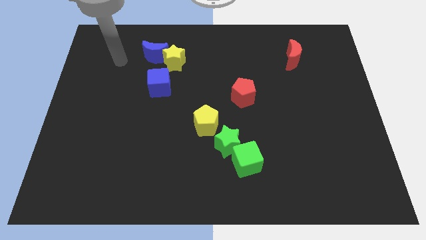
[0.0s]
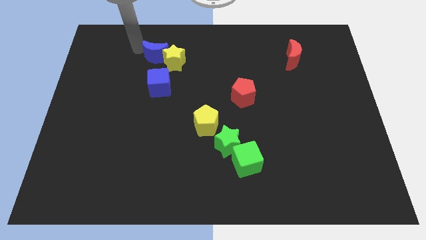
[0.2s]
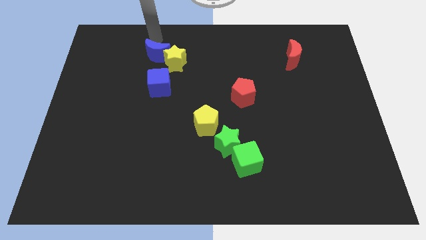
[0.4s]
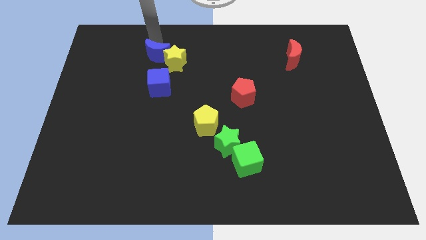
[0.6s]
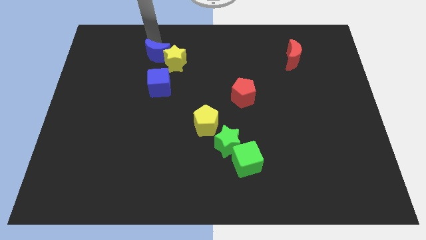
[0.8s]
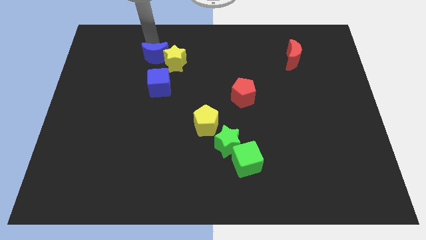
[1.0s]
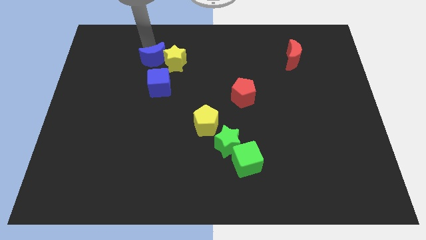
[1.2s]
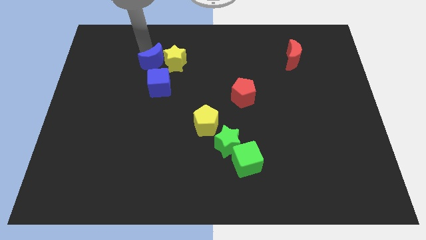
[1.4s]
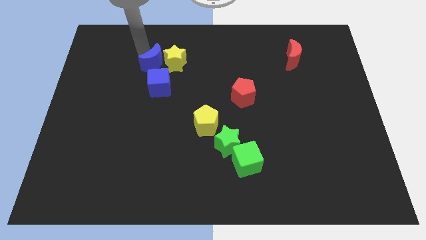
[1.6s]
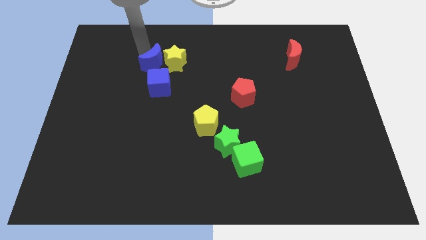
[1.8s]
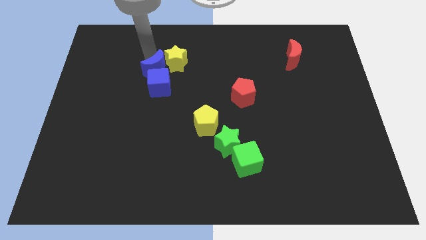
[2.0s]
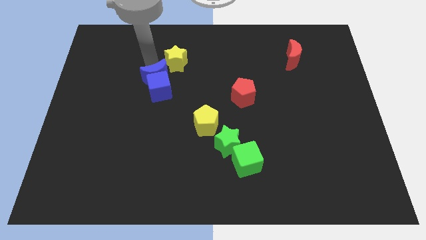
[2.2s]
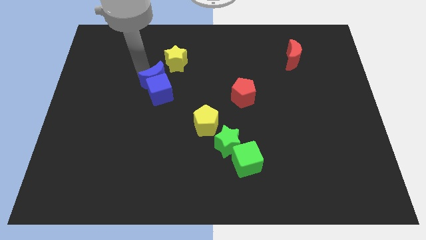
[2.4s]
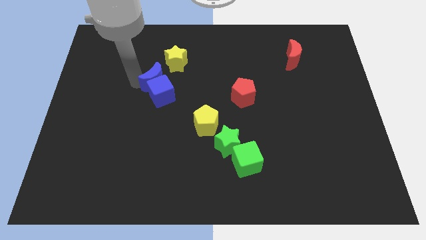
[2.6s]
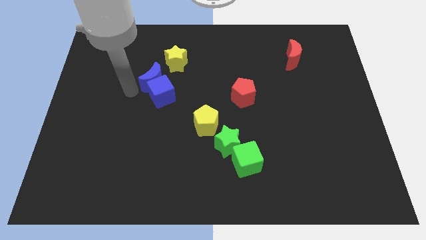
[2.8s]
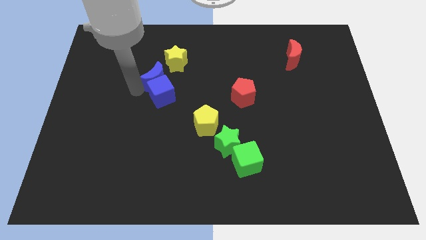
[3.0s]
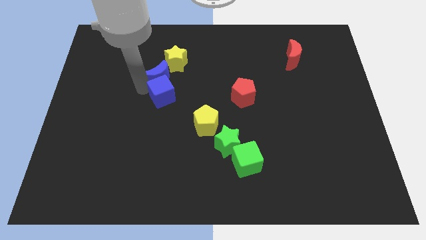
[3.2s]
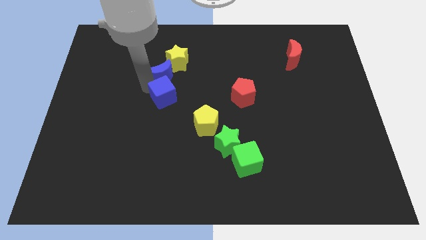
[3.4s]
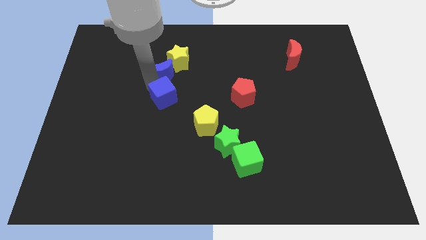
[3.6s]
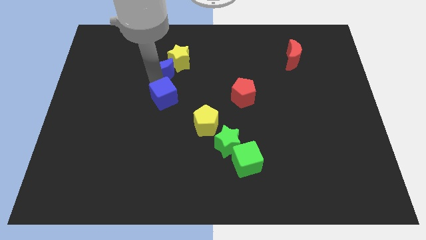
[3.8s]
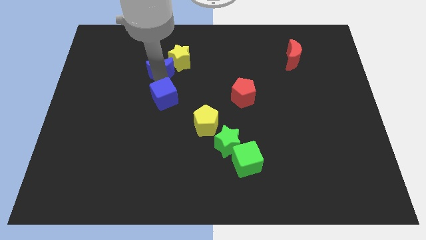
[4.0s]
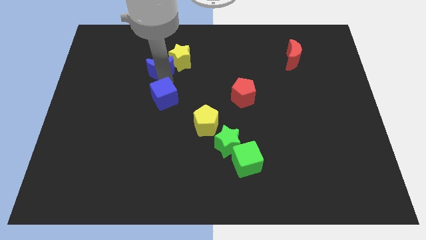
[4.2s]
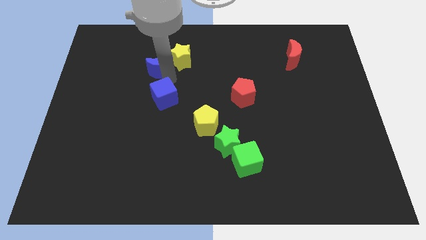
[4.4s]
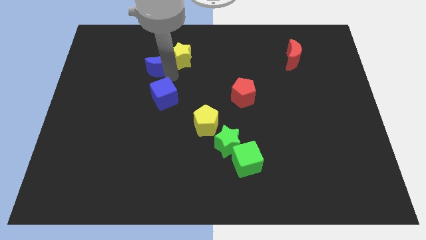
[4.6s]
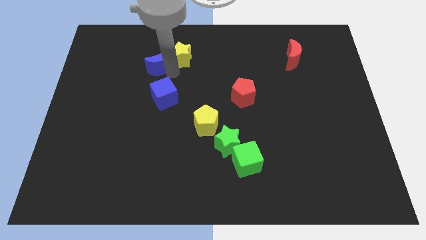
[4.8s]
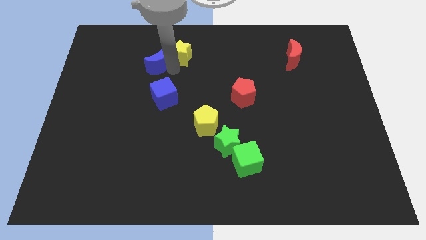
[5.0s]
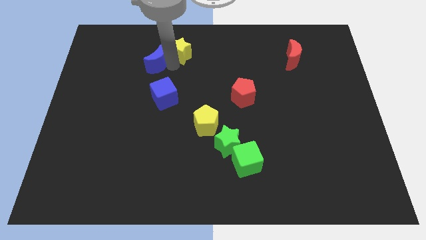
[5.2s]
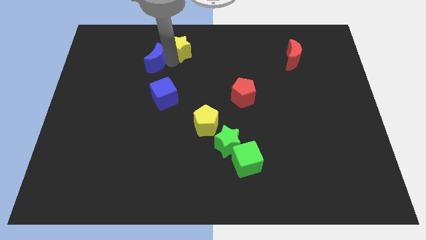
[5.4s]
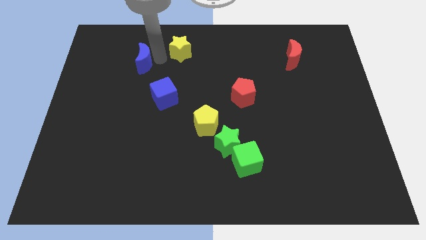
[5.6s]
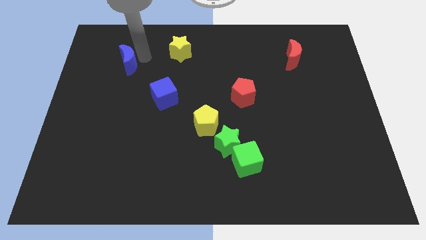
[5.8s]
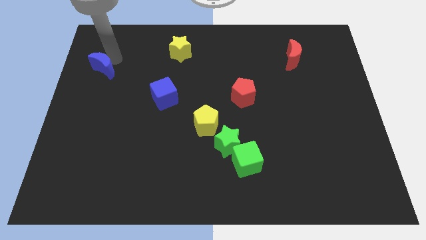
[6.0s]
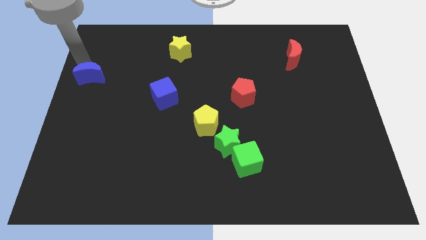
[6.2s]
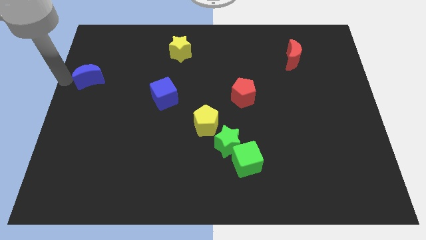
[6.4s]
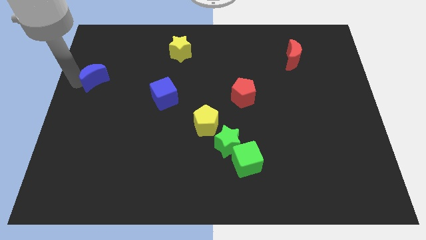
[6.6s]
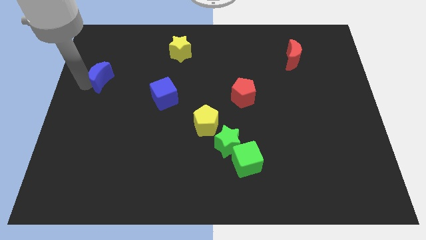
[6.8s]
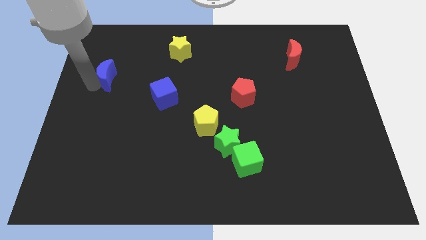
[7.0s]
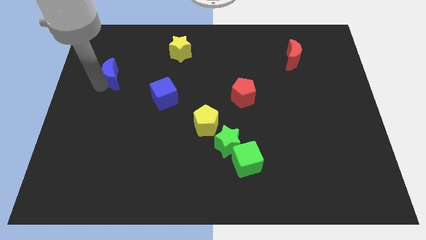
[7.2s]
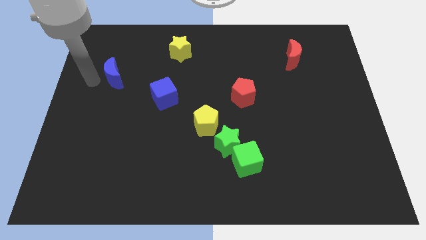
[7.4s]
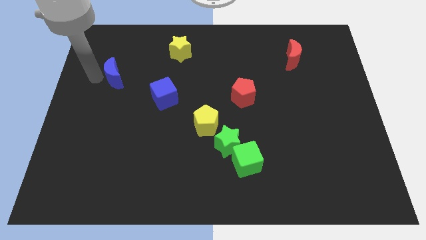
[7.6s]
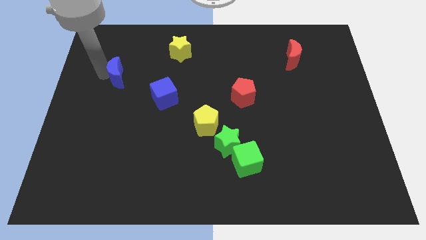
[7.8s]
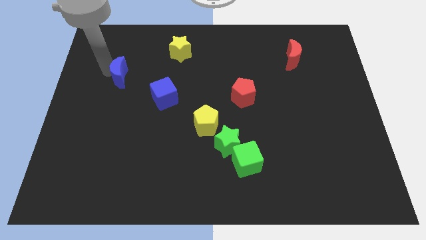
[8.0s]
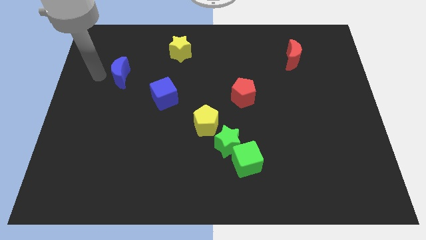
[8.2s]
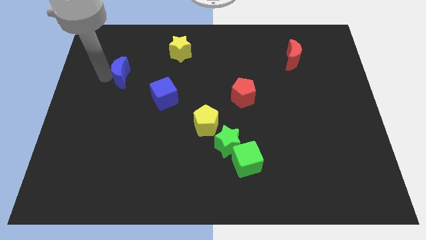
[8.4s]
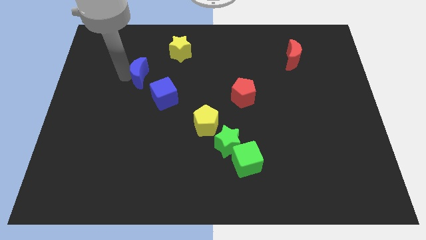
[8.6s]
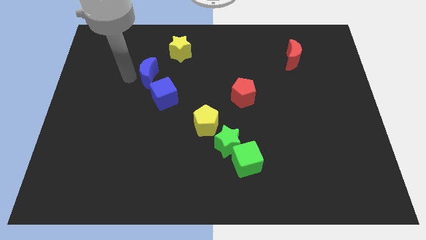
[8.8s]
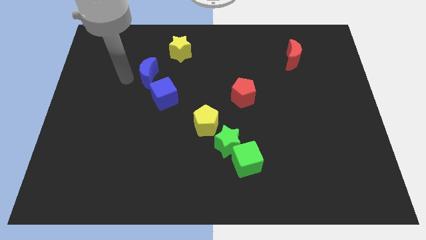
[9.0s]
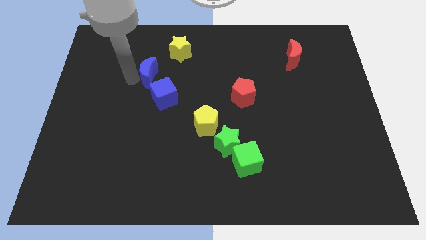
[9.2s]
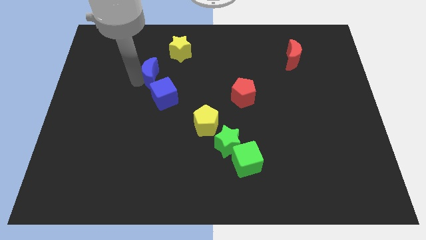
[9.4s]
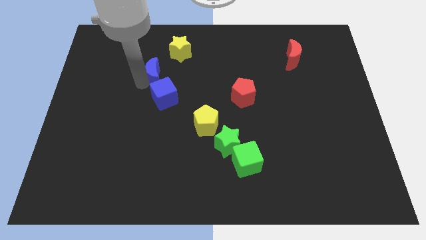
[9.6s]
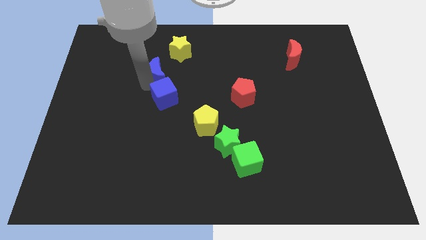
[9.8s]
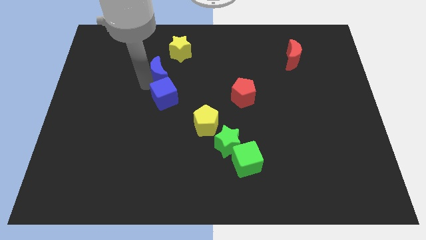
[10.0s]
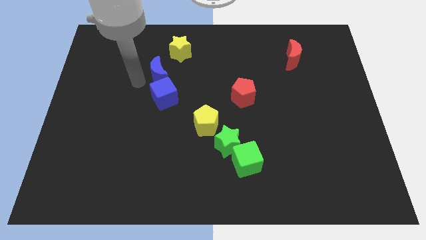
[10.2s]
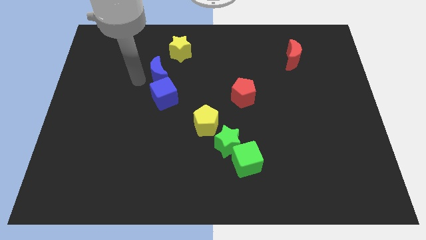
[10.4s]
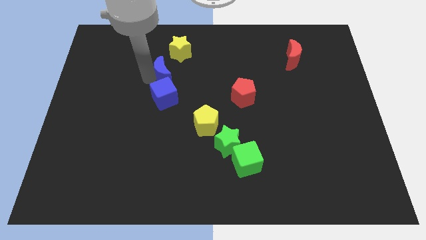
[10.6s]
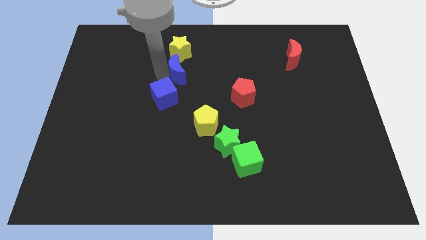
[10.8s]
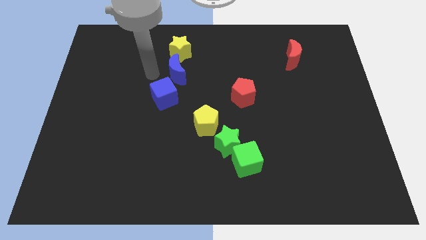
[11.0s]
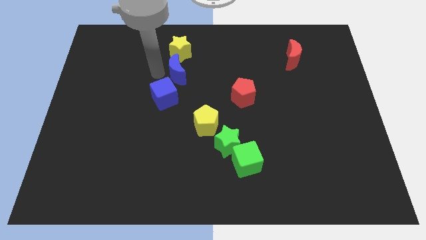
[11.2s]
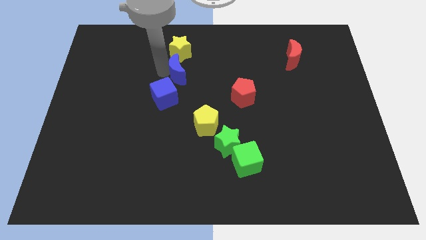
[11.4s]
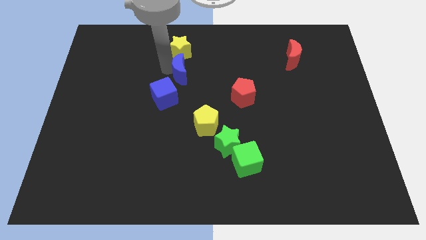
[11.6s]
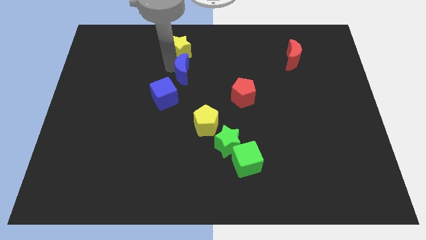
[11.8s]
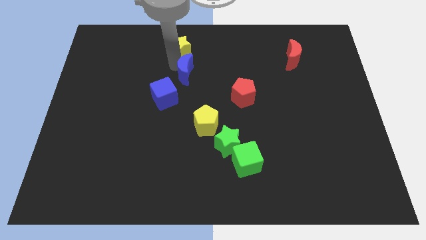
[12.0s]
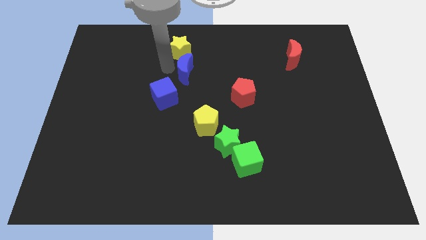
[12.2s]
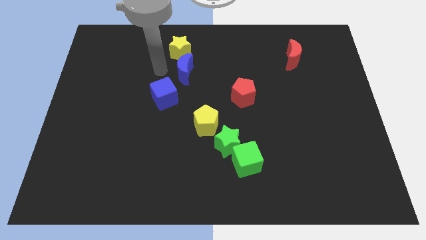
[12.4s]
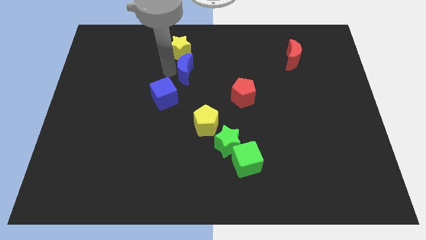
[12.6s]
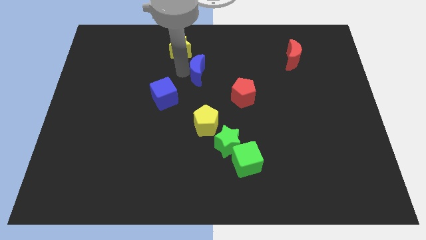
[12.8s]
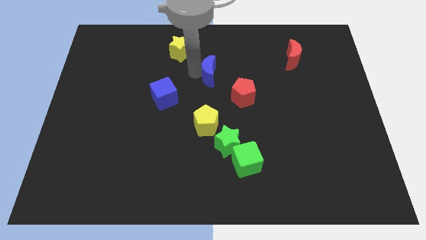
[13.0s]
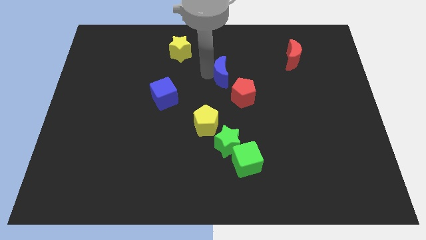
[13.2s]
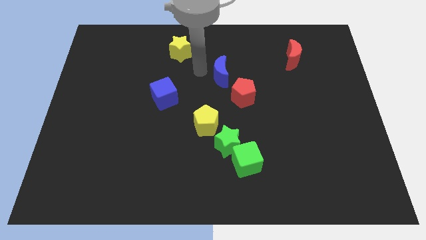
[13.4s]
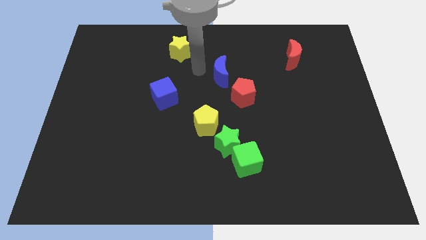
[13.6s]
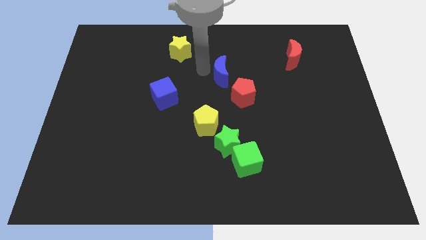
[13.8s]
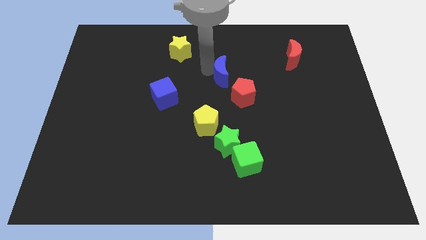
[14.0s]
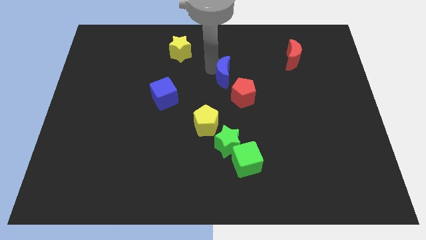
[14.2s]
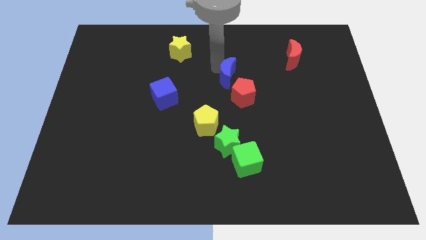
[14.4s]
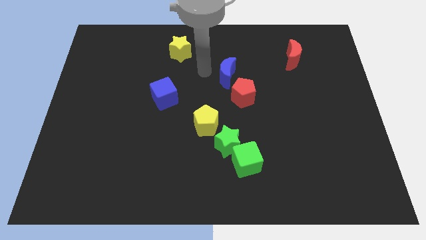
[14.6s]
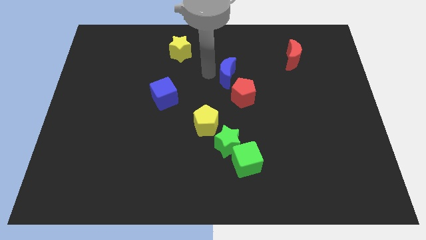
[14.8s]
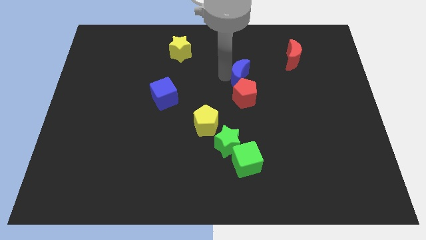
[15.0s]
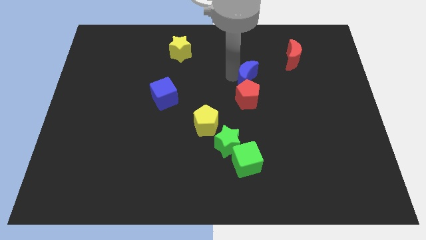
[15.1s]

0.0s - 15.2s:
push the blue moon to the top right side of the red pentagon
